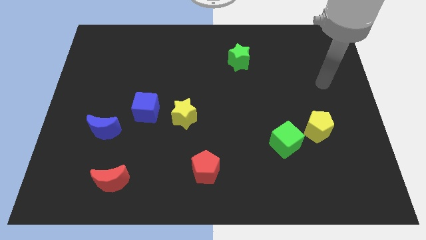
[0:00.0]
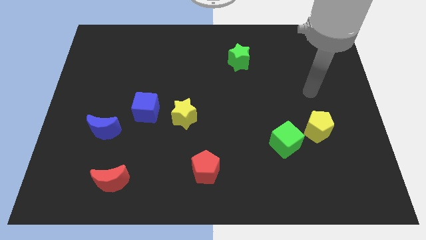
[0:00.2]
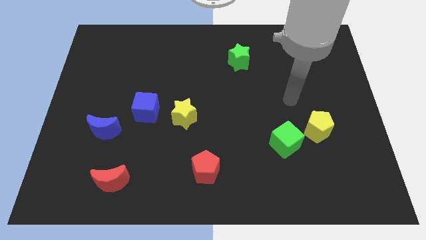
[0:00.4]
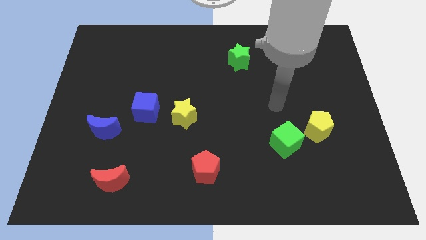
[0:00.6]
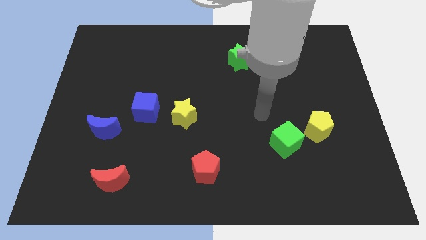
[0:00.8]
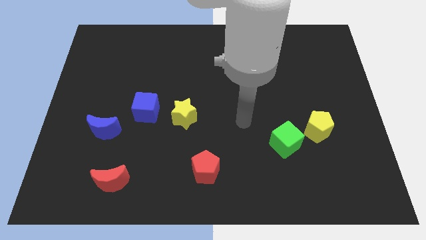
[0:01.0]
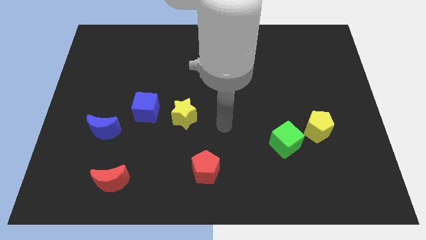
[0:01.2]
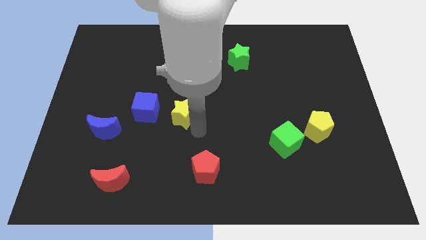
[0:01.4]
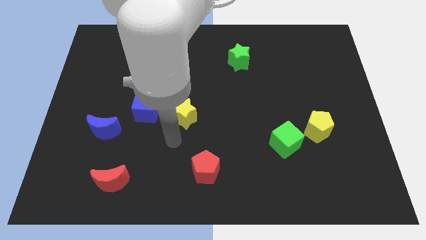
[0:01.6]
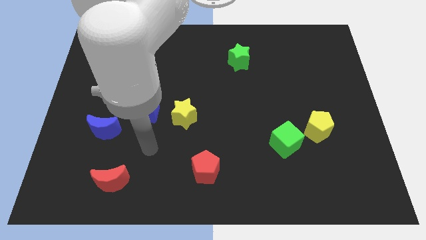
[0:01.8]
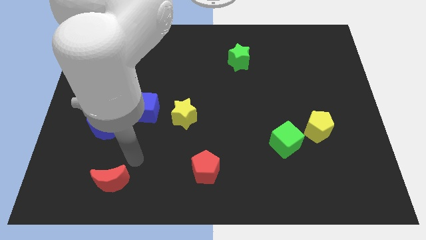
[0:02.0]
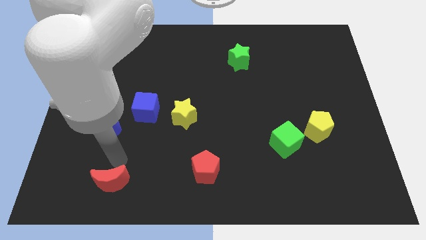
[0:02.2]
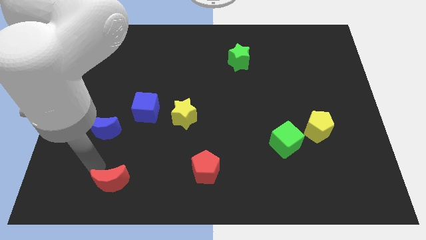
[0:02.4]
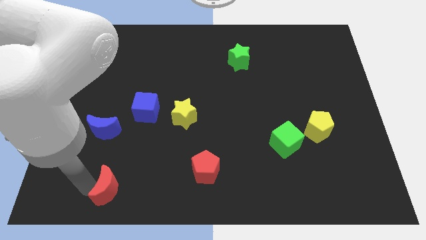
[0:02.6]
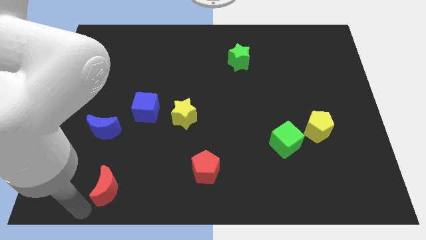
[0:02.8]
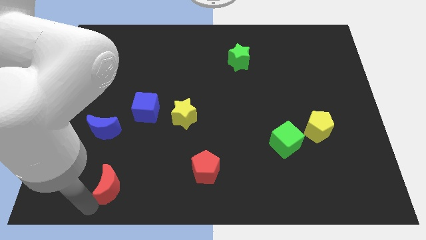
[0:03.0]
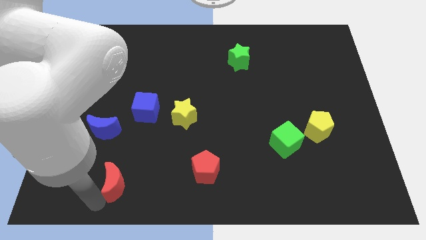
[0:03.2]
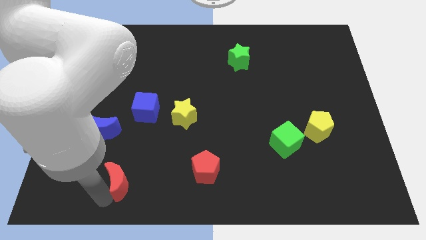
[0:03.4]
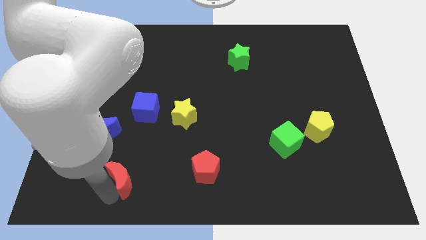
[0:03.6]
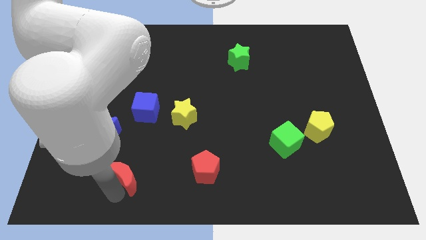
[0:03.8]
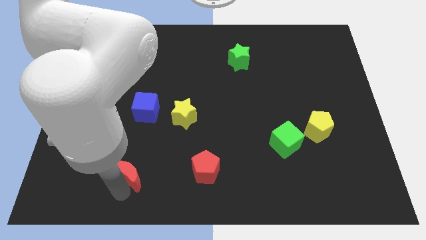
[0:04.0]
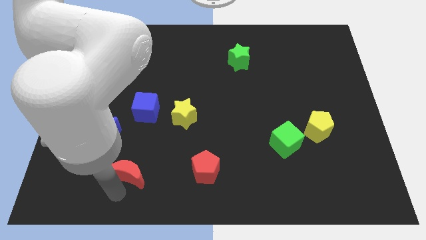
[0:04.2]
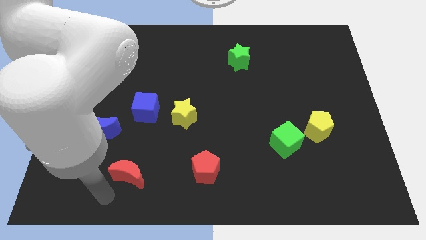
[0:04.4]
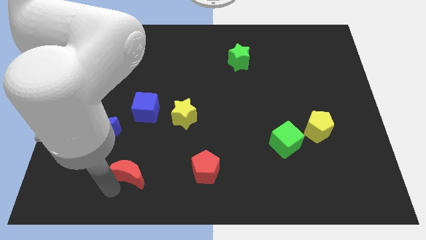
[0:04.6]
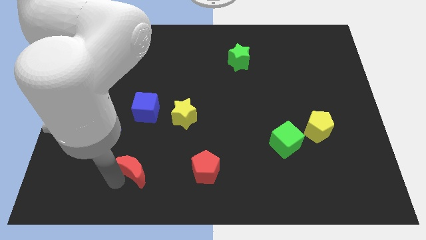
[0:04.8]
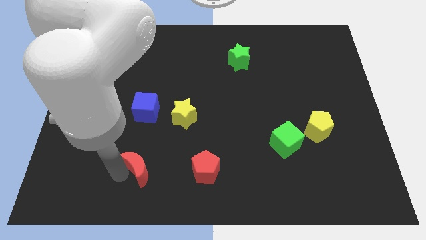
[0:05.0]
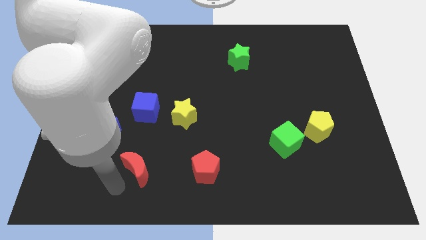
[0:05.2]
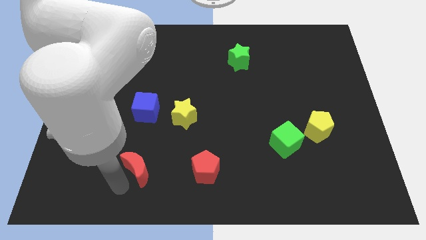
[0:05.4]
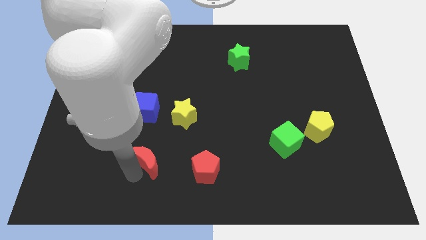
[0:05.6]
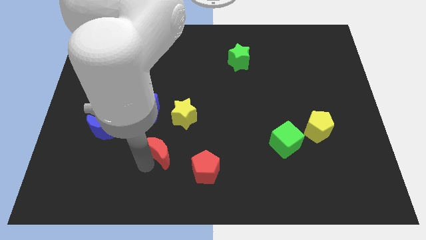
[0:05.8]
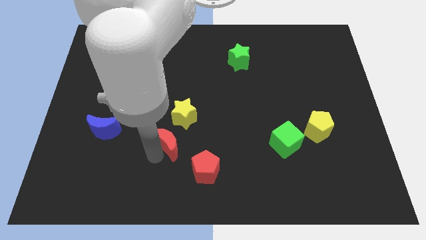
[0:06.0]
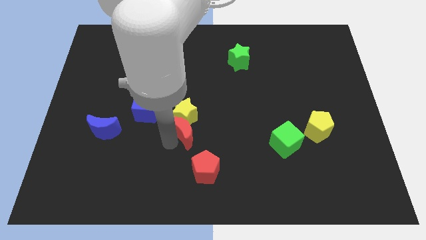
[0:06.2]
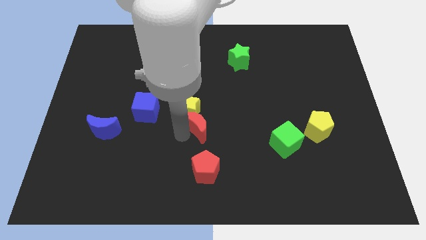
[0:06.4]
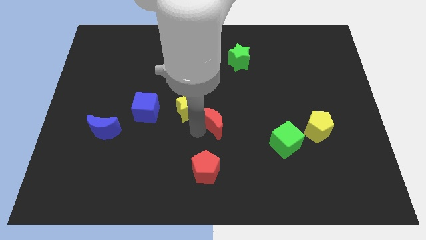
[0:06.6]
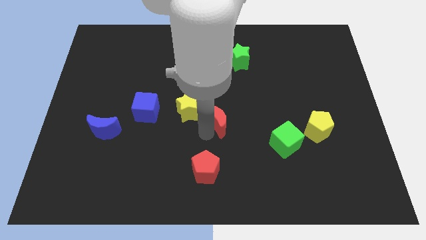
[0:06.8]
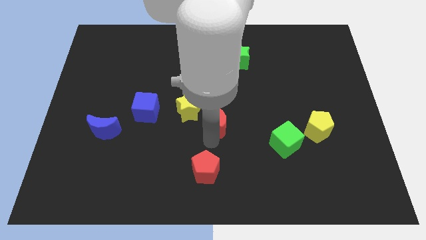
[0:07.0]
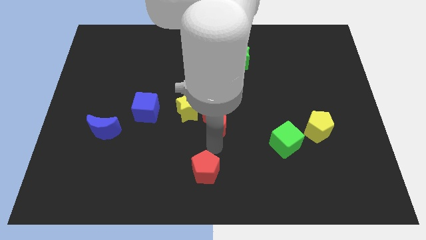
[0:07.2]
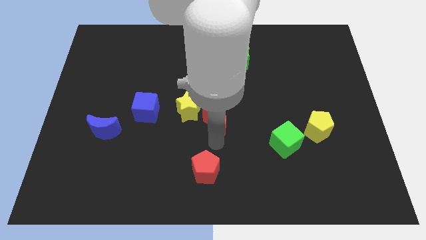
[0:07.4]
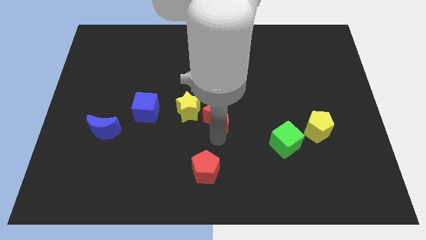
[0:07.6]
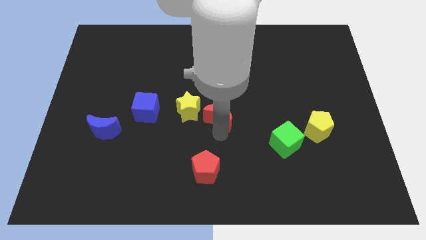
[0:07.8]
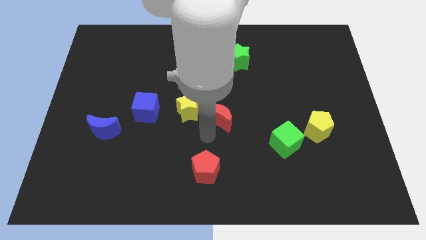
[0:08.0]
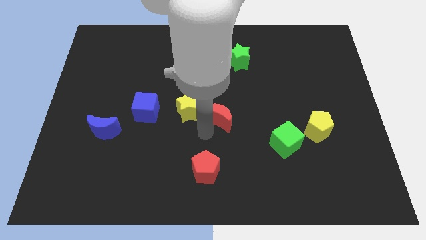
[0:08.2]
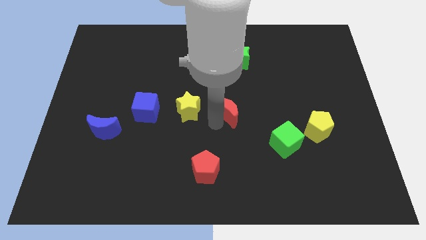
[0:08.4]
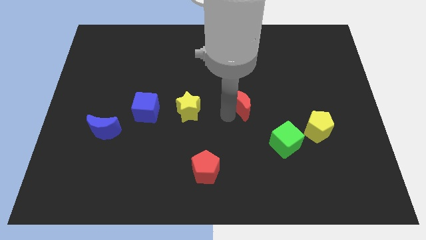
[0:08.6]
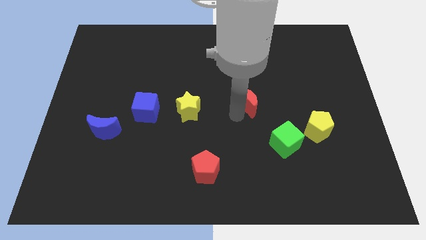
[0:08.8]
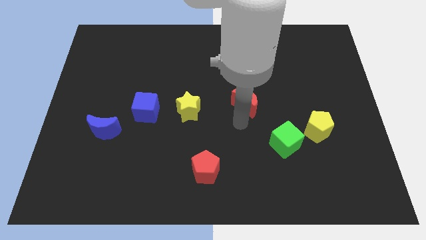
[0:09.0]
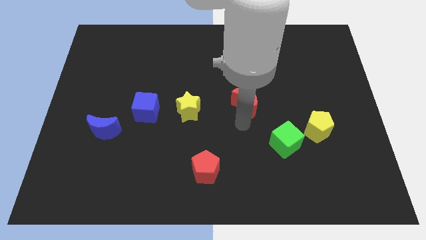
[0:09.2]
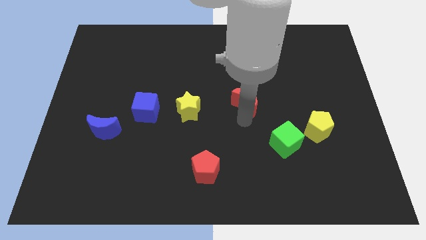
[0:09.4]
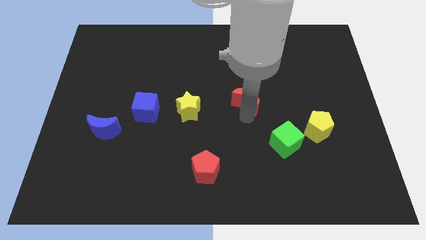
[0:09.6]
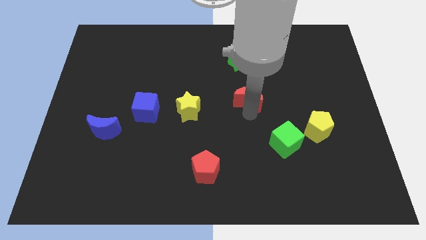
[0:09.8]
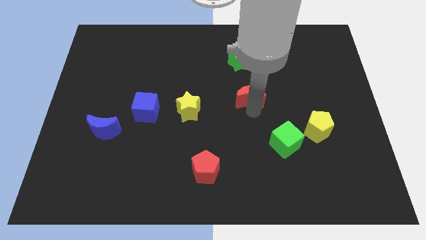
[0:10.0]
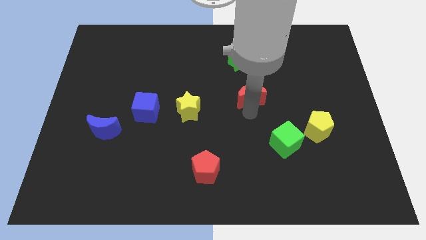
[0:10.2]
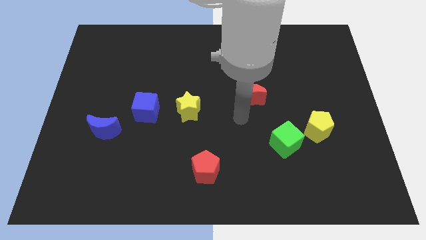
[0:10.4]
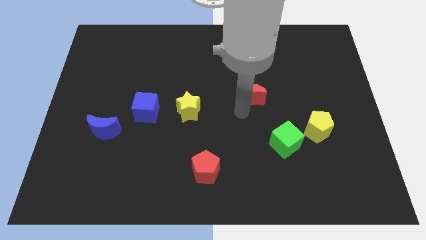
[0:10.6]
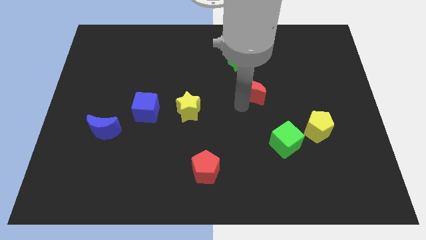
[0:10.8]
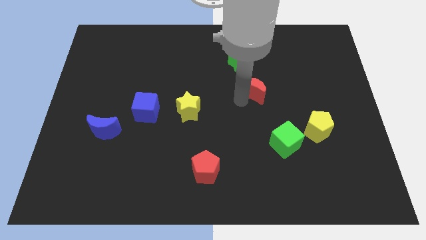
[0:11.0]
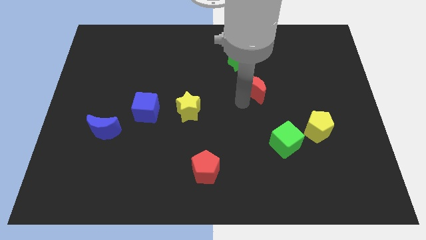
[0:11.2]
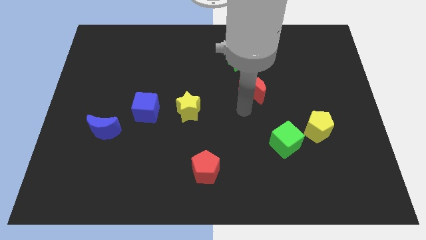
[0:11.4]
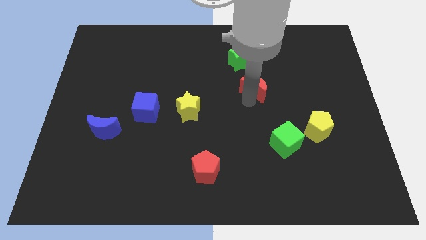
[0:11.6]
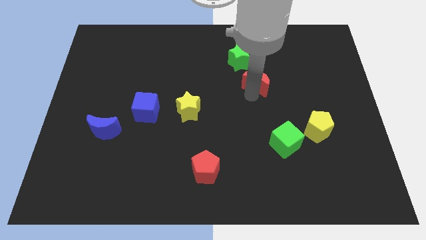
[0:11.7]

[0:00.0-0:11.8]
push the red moon to the bottom right side of the green star
